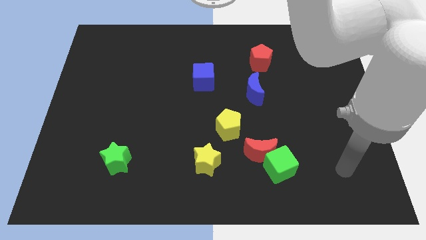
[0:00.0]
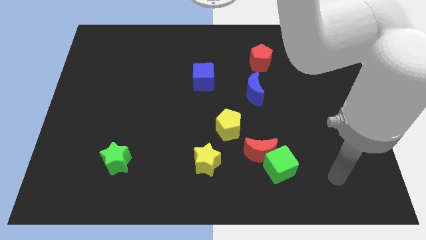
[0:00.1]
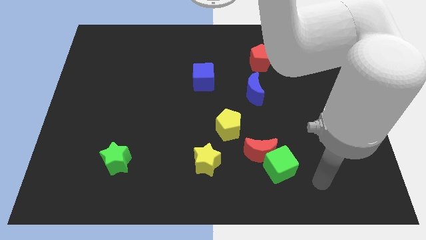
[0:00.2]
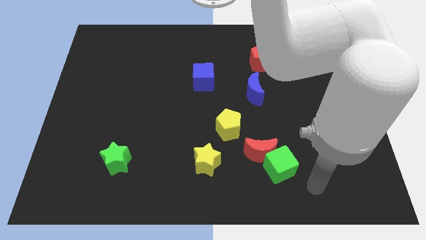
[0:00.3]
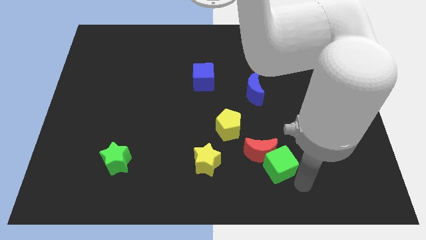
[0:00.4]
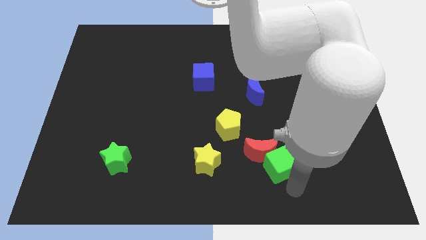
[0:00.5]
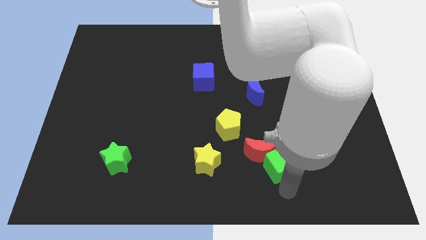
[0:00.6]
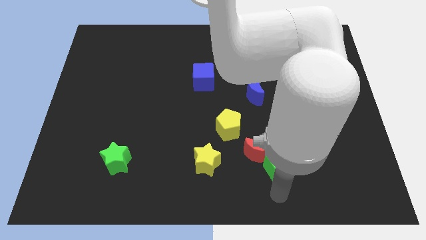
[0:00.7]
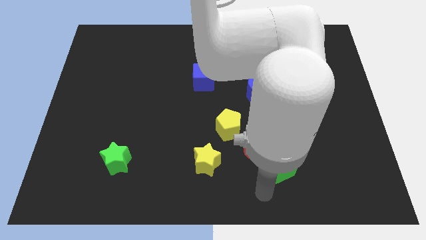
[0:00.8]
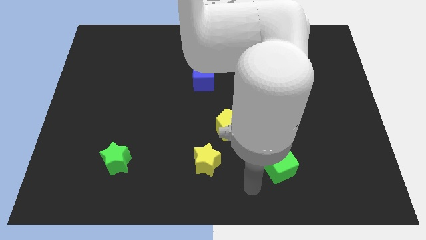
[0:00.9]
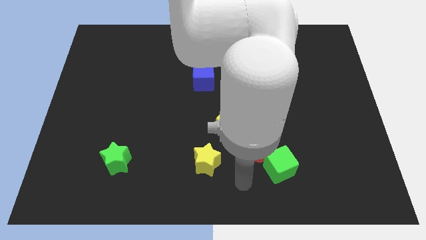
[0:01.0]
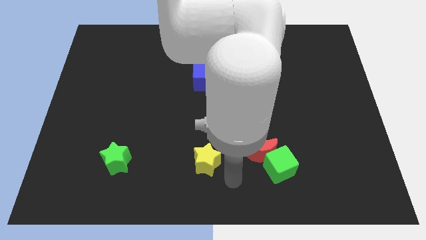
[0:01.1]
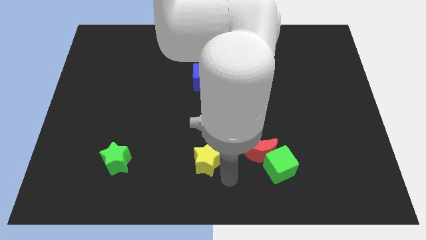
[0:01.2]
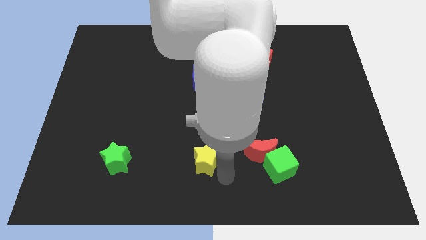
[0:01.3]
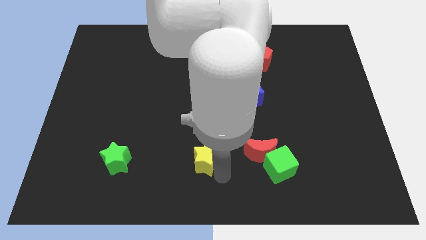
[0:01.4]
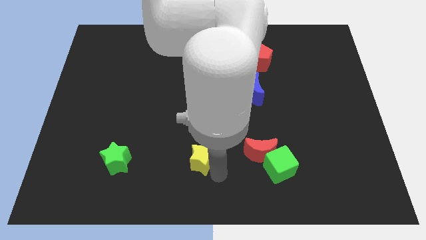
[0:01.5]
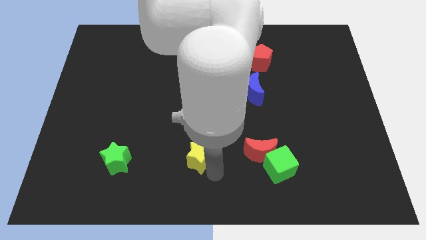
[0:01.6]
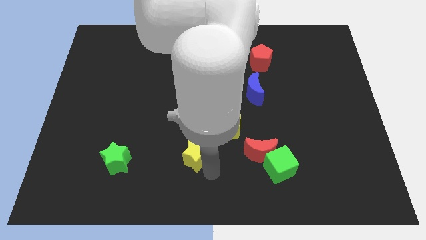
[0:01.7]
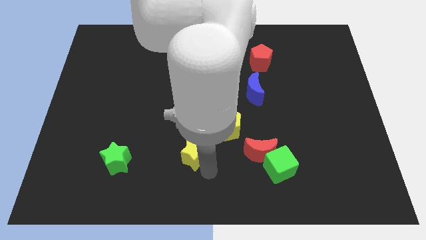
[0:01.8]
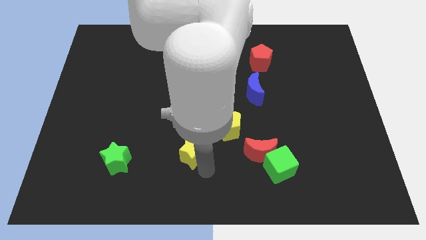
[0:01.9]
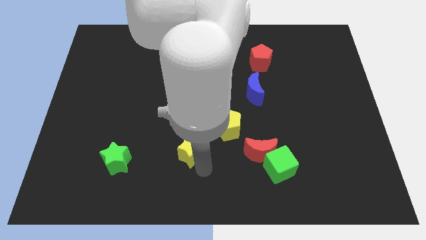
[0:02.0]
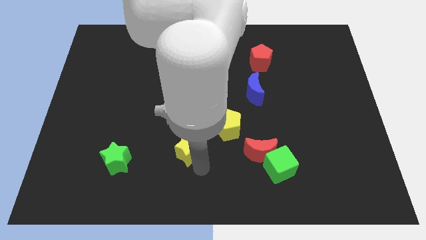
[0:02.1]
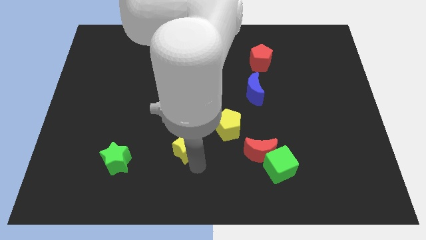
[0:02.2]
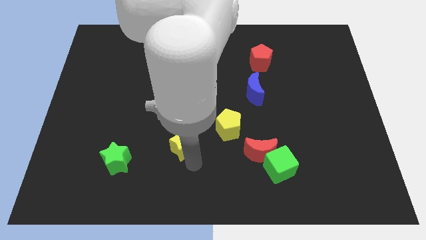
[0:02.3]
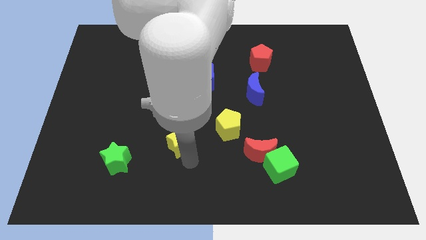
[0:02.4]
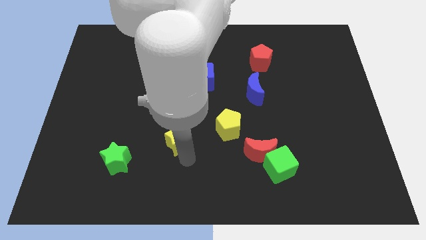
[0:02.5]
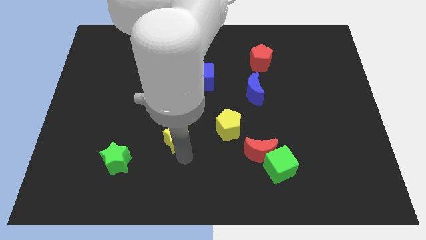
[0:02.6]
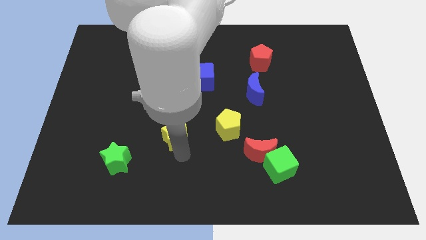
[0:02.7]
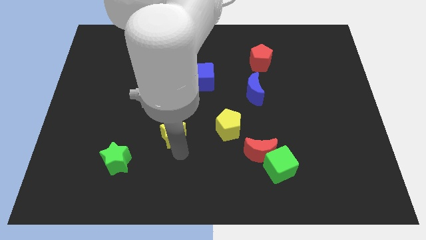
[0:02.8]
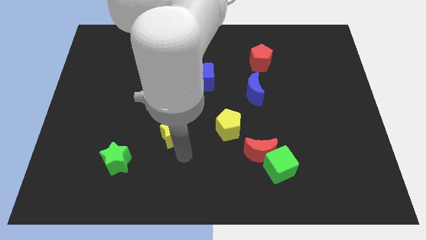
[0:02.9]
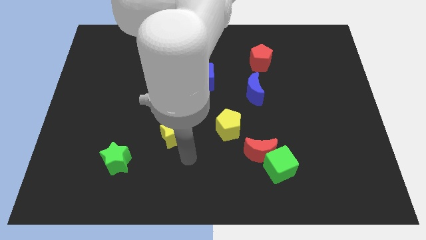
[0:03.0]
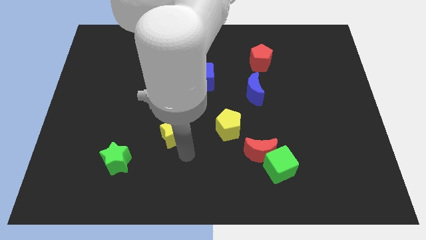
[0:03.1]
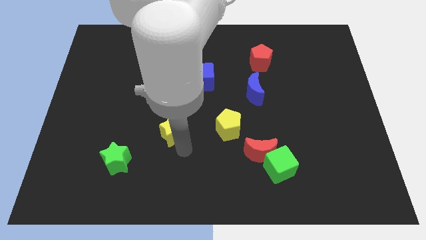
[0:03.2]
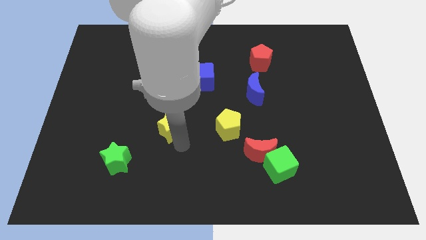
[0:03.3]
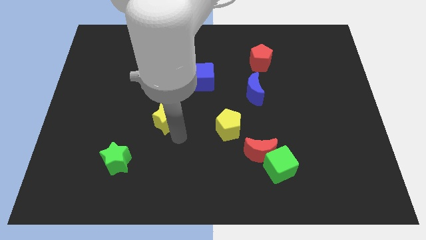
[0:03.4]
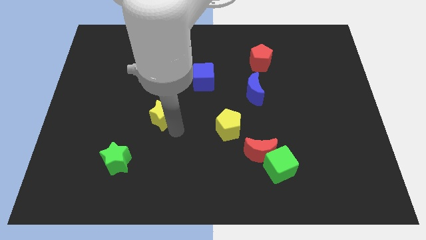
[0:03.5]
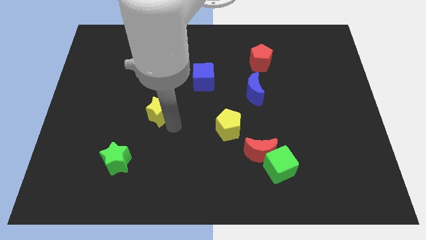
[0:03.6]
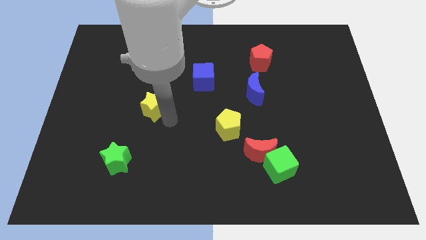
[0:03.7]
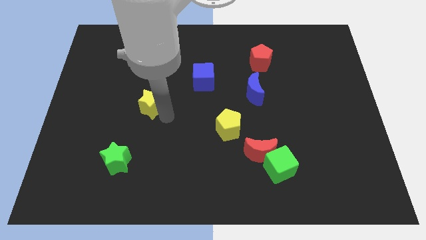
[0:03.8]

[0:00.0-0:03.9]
move the yellow star diagonally up and to the left

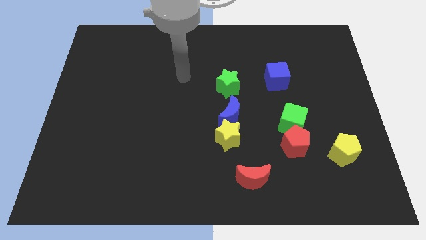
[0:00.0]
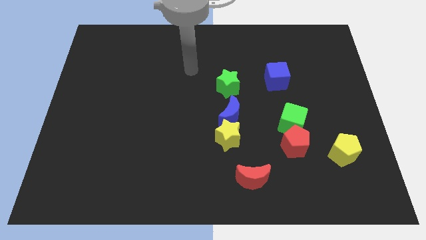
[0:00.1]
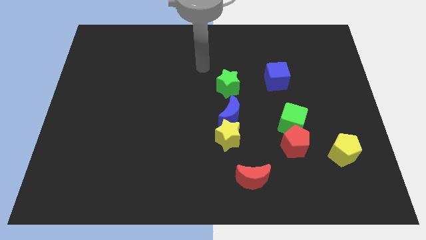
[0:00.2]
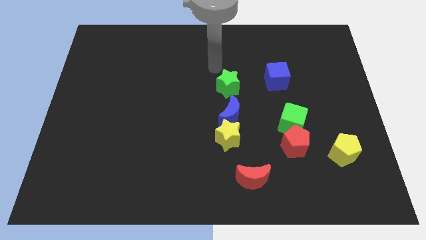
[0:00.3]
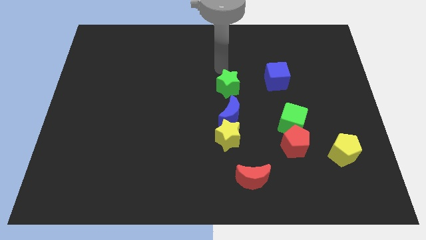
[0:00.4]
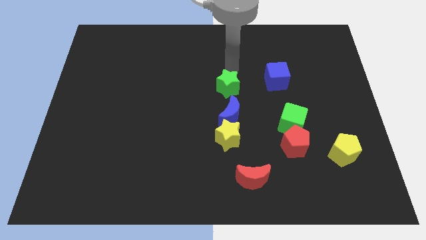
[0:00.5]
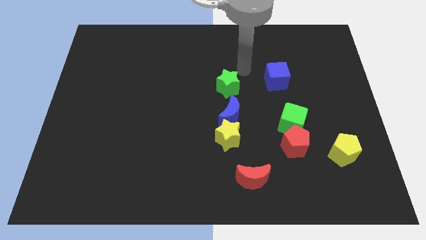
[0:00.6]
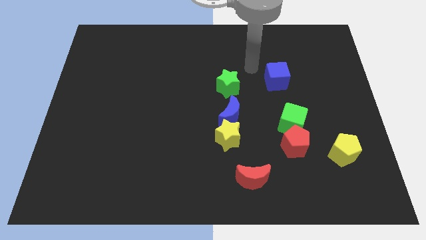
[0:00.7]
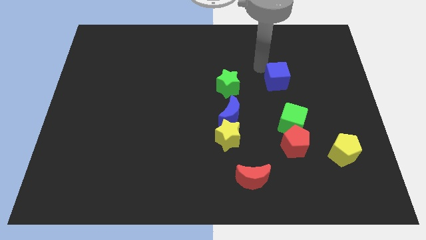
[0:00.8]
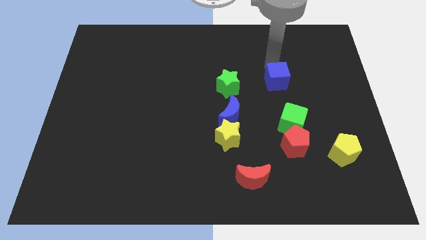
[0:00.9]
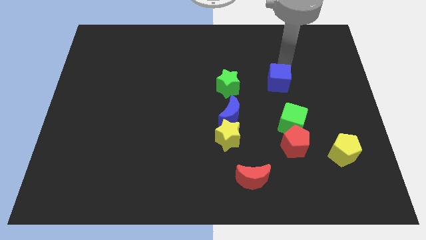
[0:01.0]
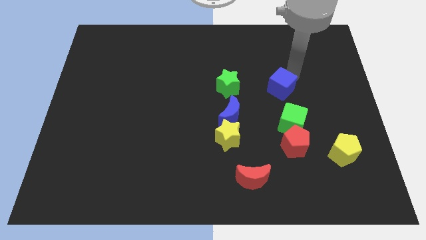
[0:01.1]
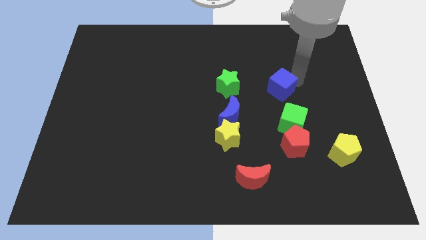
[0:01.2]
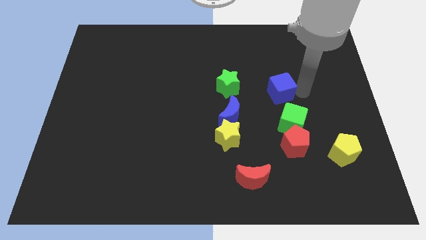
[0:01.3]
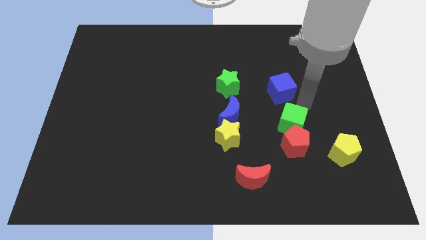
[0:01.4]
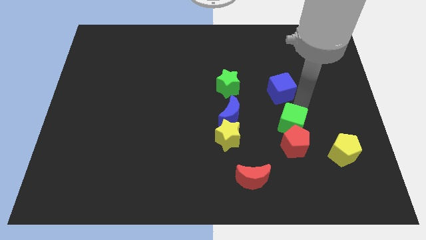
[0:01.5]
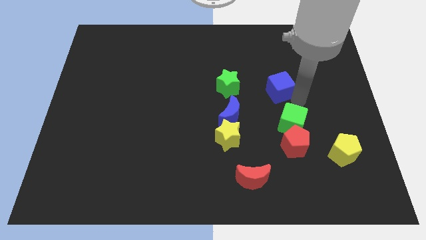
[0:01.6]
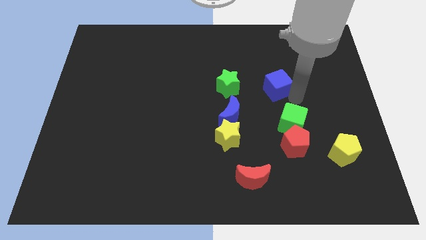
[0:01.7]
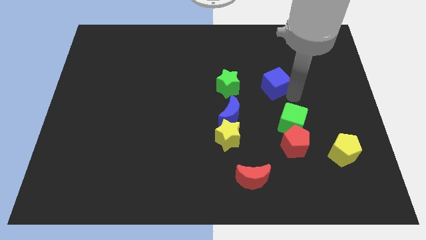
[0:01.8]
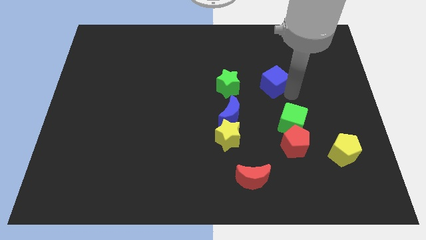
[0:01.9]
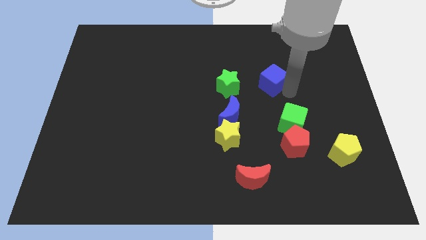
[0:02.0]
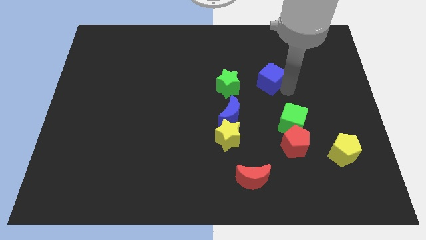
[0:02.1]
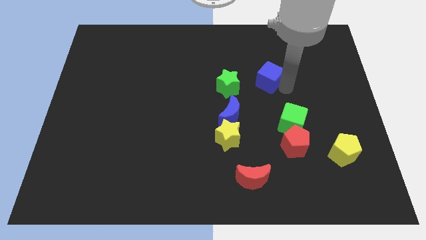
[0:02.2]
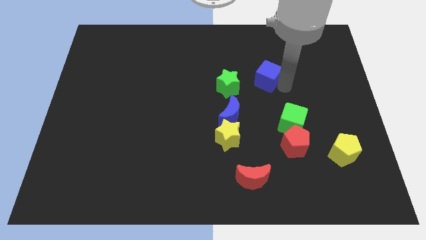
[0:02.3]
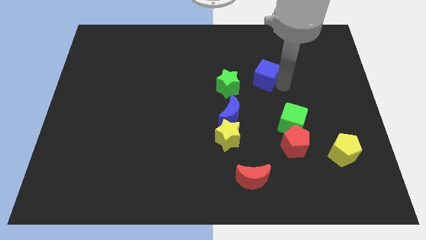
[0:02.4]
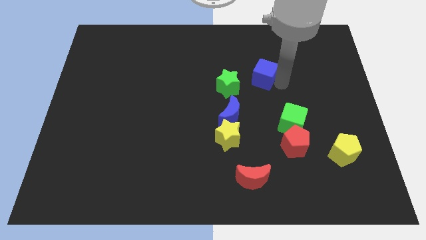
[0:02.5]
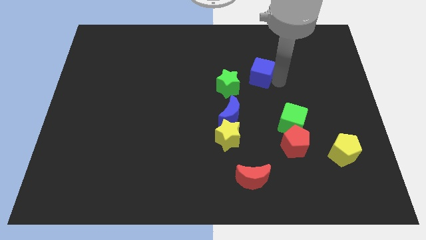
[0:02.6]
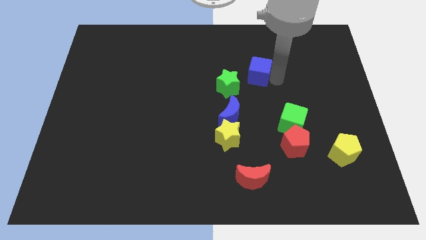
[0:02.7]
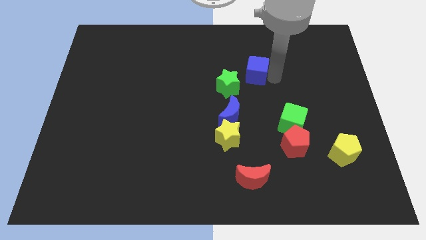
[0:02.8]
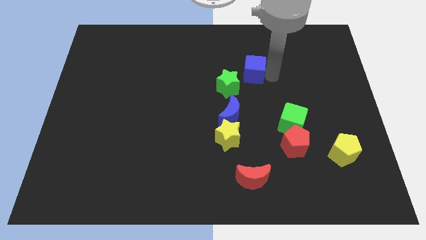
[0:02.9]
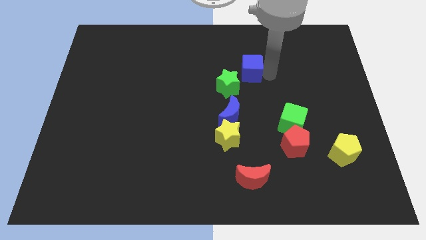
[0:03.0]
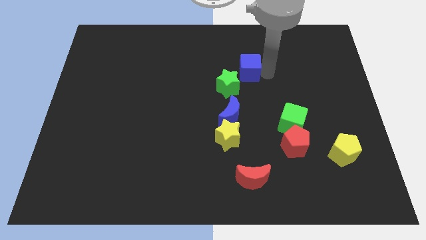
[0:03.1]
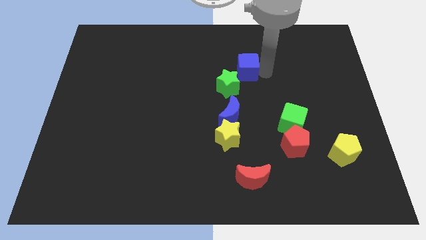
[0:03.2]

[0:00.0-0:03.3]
push the blue cube to the left a bit

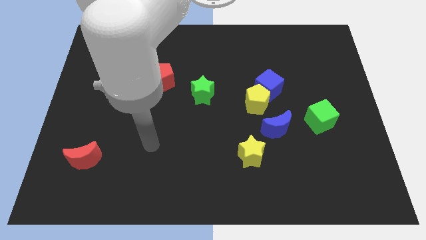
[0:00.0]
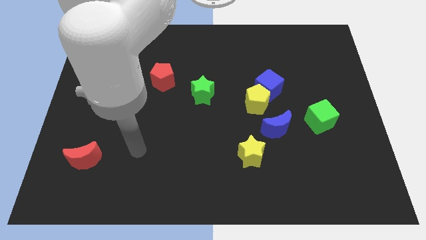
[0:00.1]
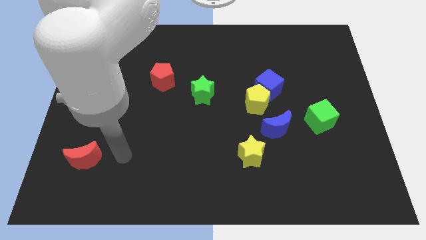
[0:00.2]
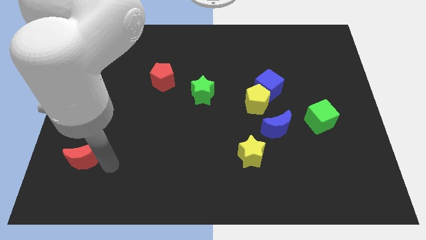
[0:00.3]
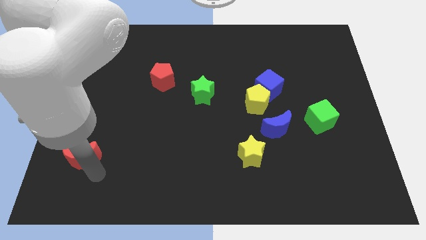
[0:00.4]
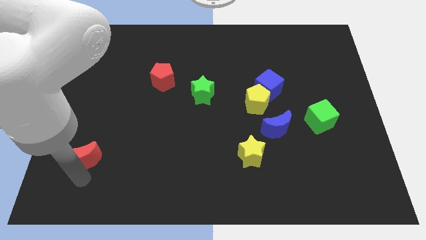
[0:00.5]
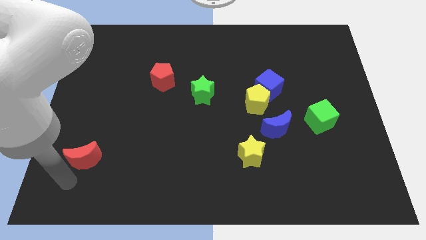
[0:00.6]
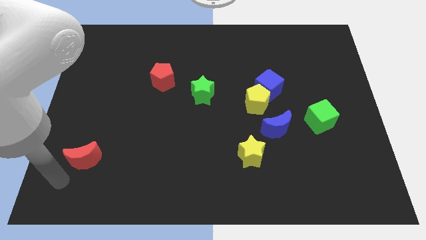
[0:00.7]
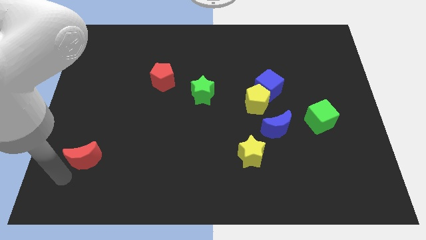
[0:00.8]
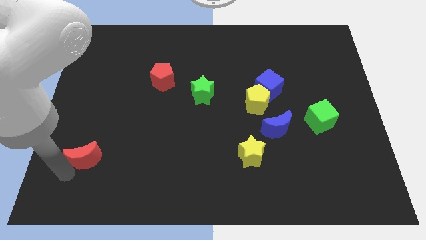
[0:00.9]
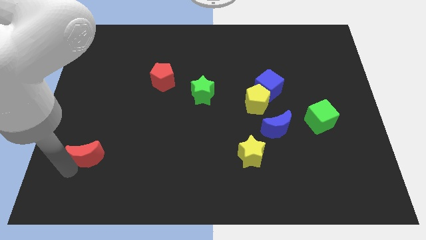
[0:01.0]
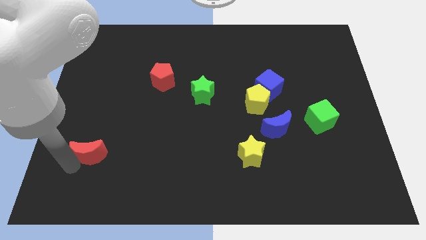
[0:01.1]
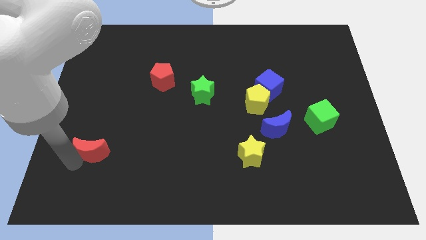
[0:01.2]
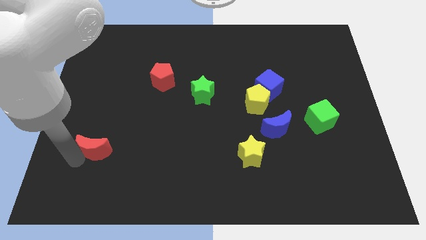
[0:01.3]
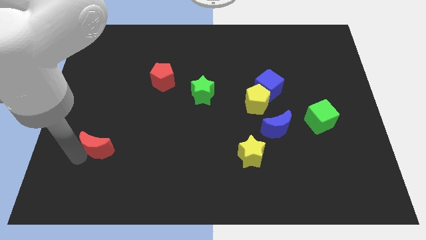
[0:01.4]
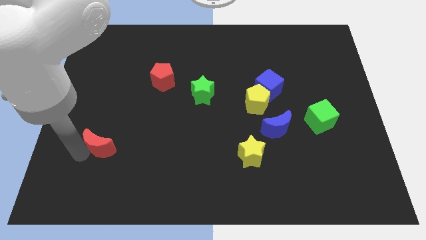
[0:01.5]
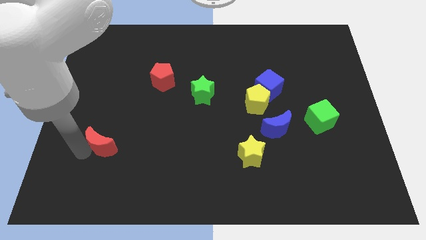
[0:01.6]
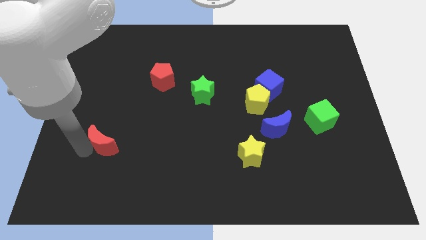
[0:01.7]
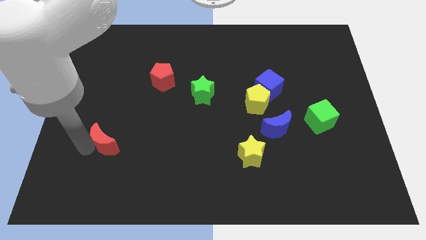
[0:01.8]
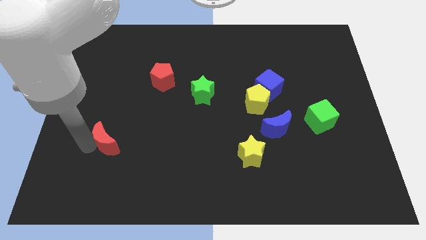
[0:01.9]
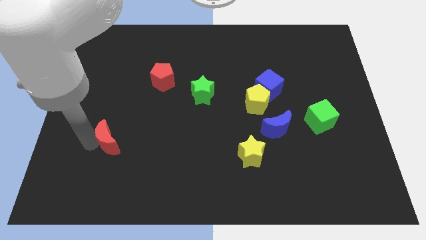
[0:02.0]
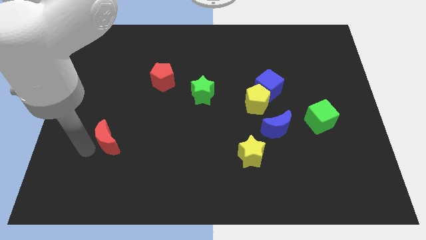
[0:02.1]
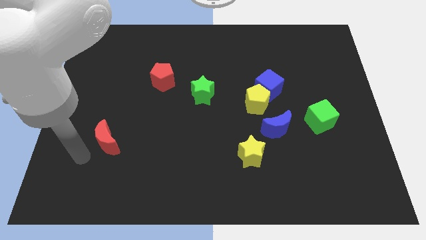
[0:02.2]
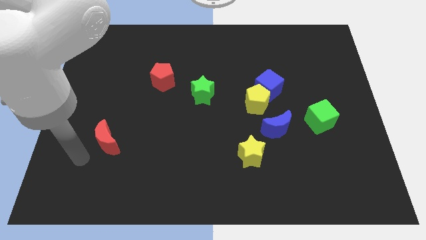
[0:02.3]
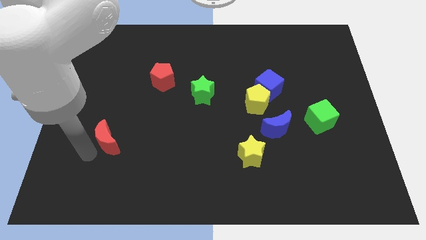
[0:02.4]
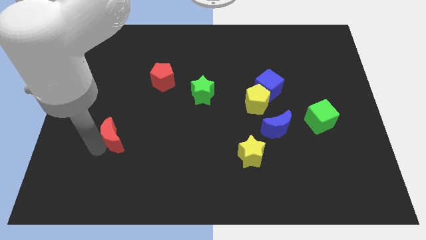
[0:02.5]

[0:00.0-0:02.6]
slightly slide the red moon upwards and to the right
